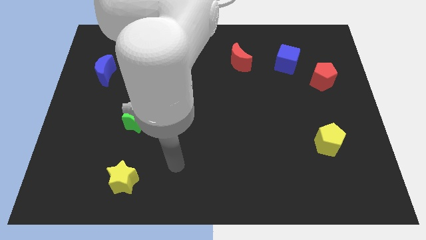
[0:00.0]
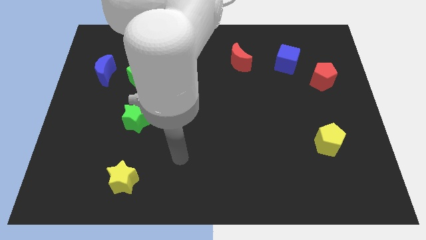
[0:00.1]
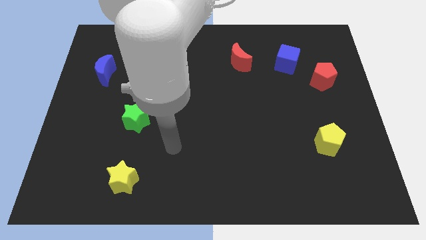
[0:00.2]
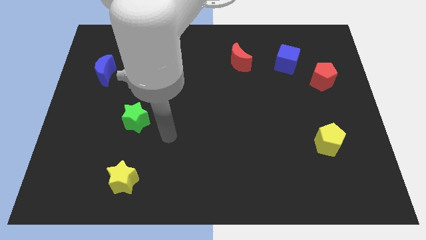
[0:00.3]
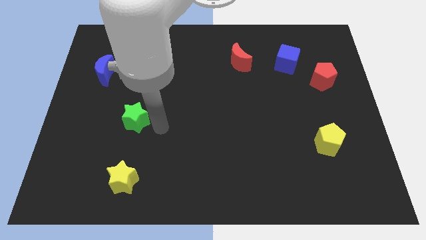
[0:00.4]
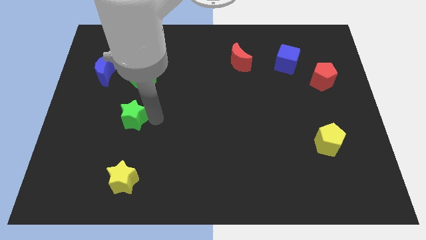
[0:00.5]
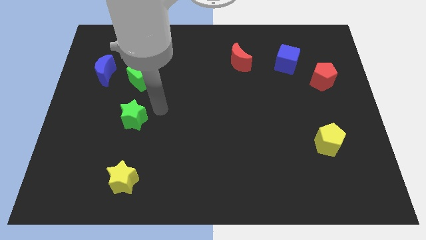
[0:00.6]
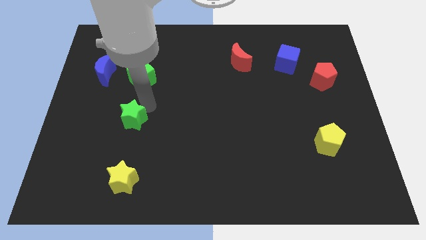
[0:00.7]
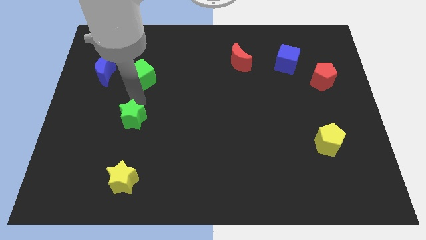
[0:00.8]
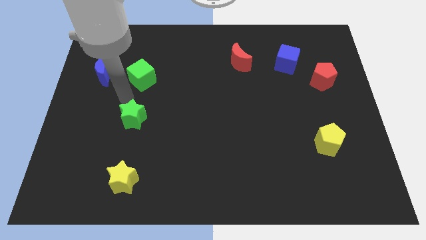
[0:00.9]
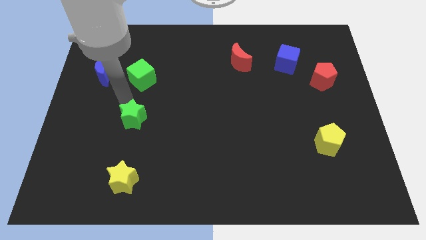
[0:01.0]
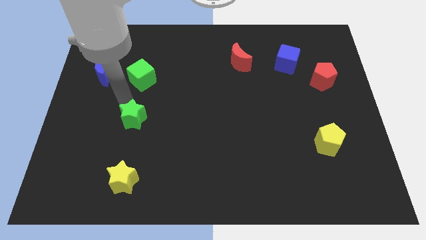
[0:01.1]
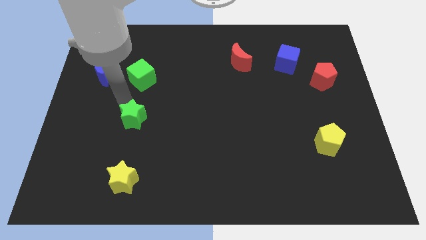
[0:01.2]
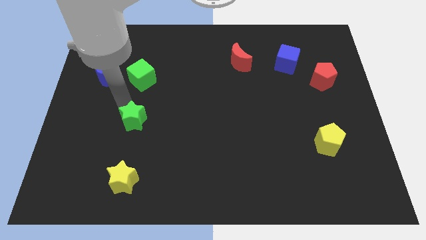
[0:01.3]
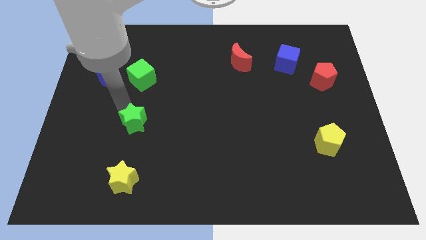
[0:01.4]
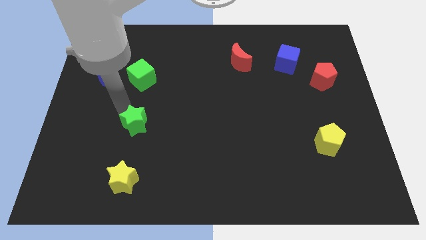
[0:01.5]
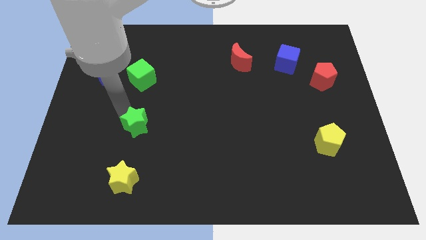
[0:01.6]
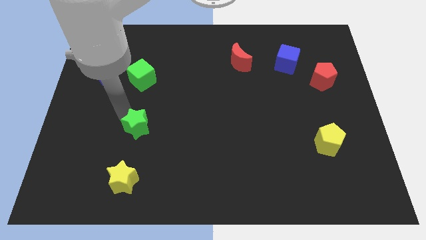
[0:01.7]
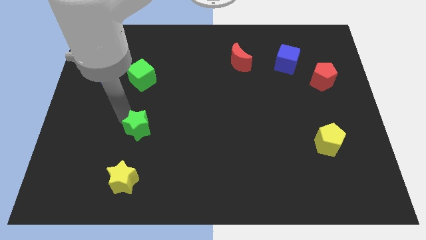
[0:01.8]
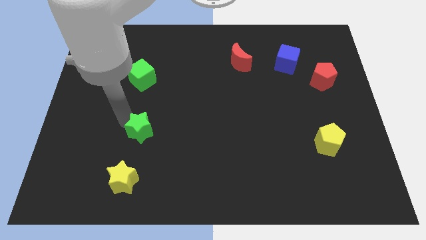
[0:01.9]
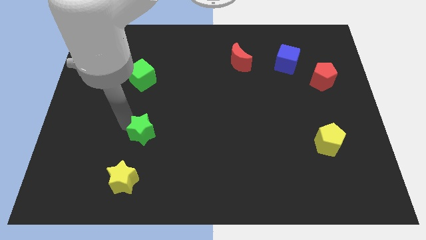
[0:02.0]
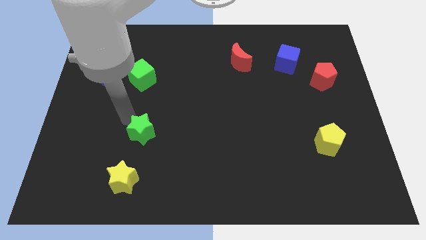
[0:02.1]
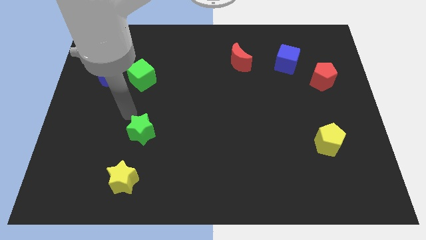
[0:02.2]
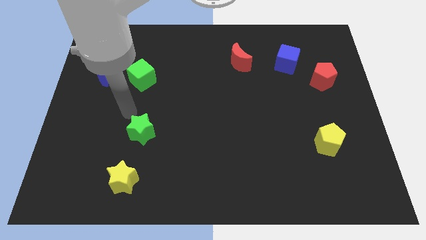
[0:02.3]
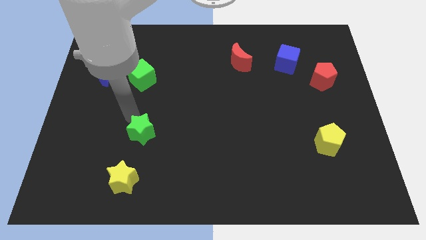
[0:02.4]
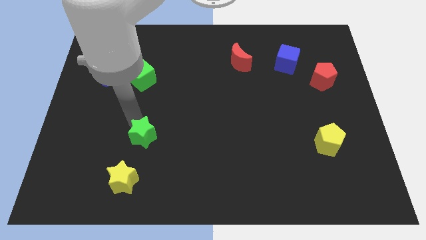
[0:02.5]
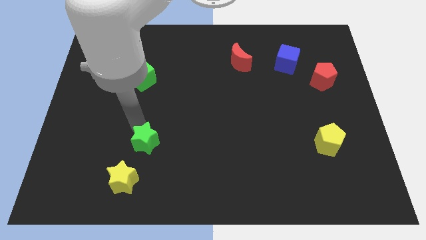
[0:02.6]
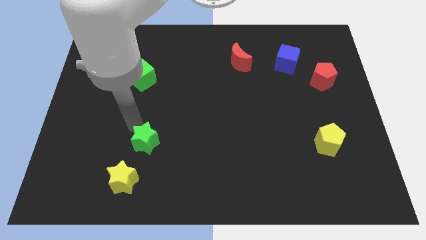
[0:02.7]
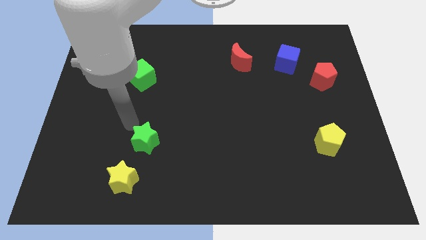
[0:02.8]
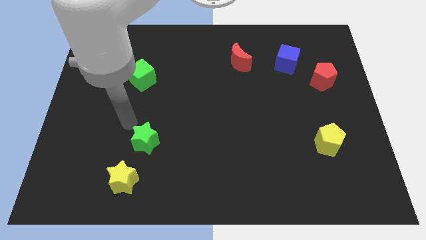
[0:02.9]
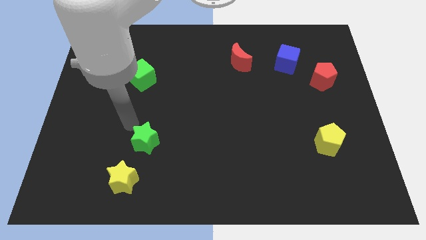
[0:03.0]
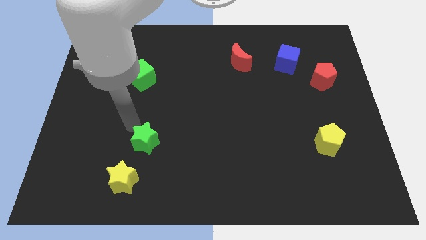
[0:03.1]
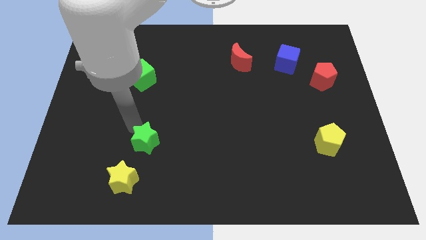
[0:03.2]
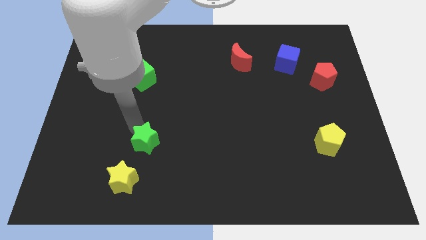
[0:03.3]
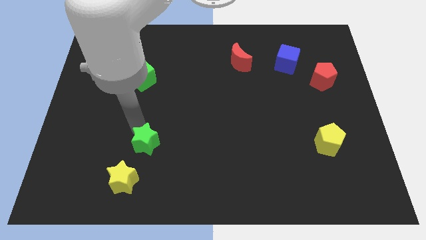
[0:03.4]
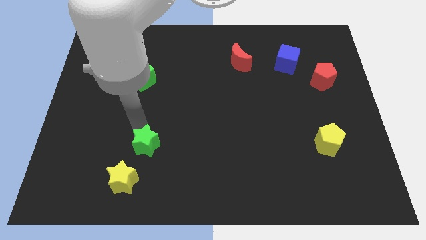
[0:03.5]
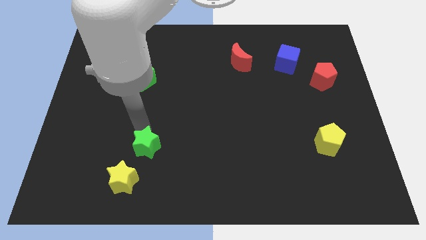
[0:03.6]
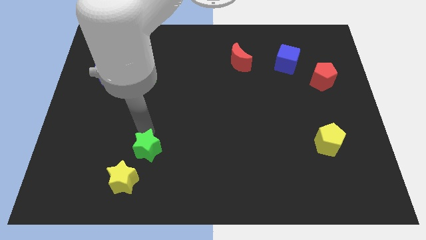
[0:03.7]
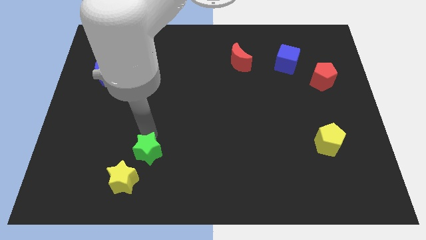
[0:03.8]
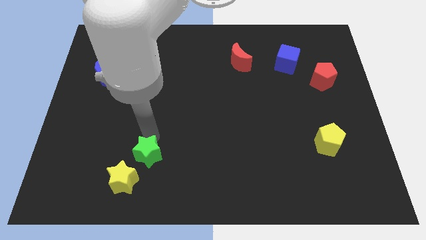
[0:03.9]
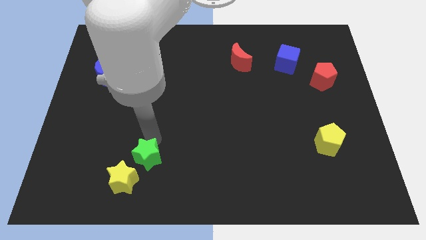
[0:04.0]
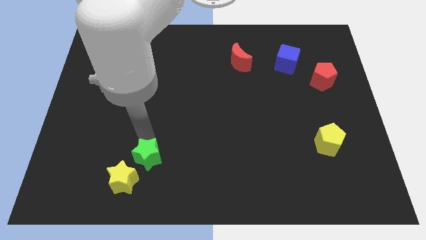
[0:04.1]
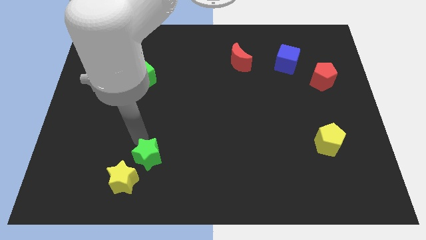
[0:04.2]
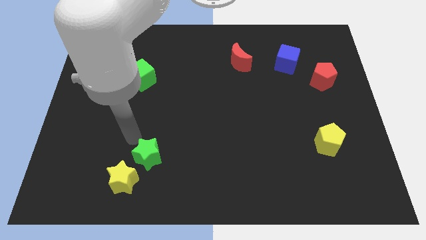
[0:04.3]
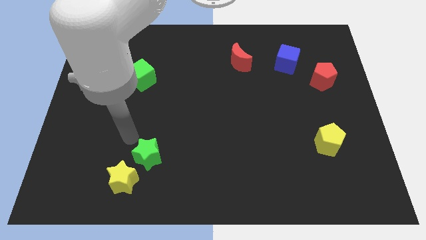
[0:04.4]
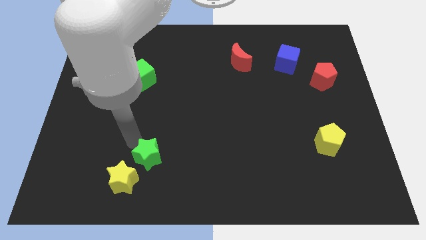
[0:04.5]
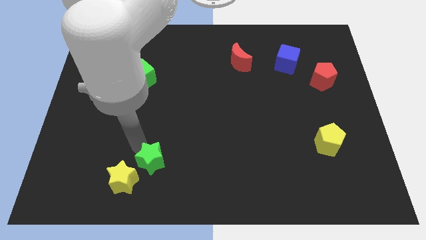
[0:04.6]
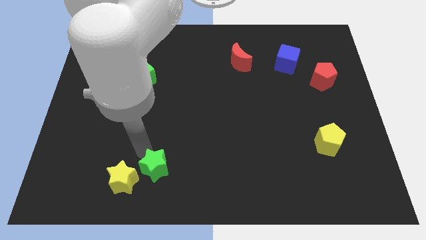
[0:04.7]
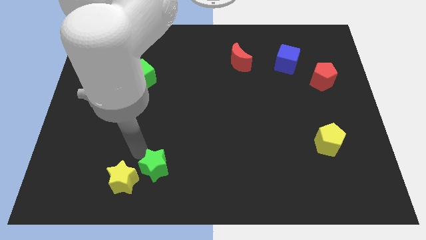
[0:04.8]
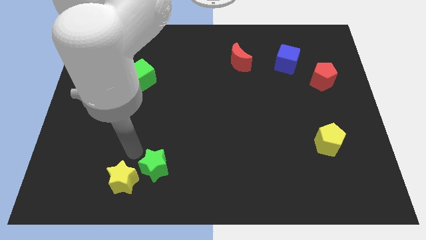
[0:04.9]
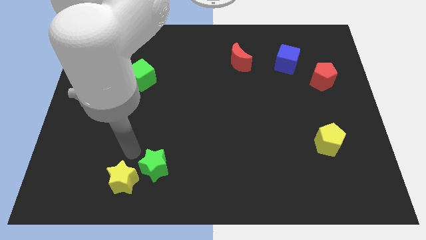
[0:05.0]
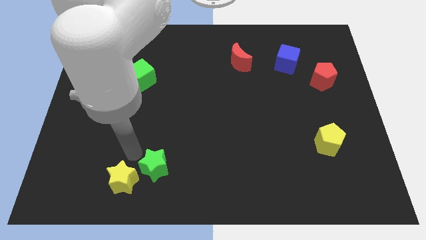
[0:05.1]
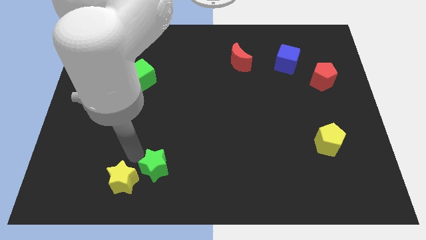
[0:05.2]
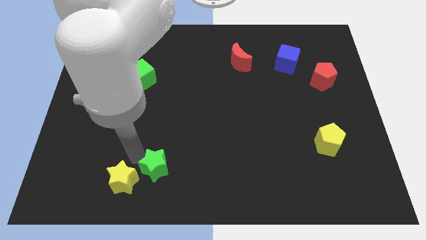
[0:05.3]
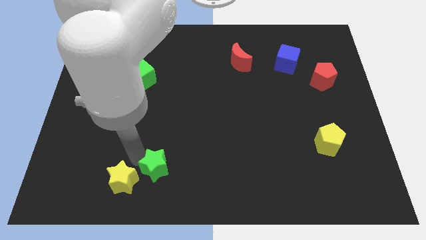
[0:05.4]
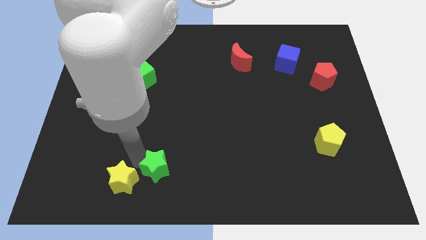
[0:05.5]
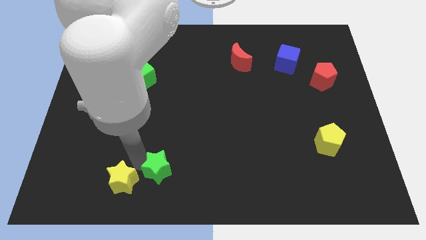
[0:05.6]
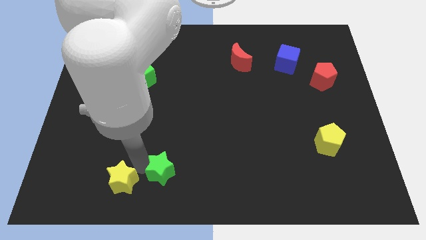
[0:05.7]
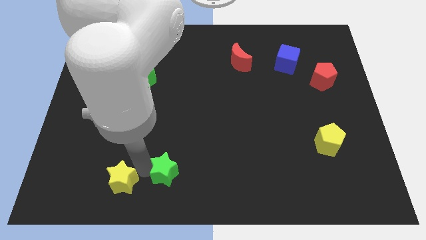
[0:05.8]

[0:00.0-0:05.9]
move the green star to the bottom side
